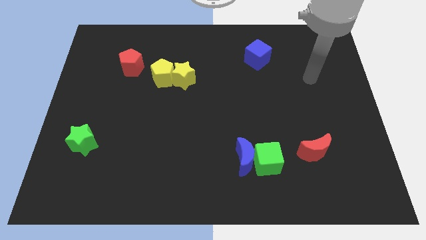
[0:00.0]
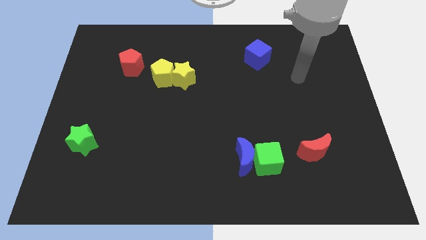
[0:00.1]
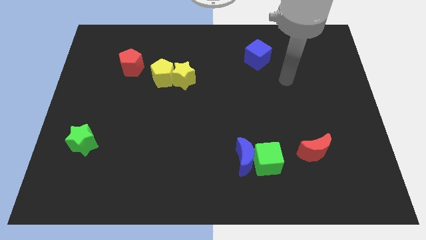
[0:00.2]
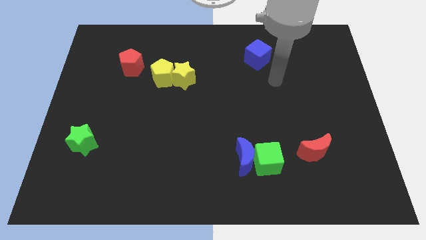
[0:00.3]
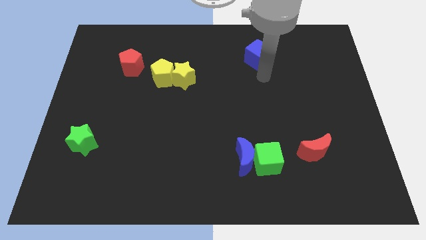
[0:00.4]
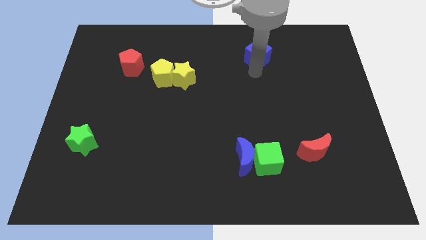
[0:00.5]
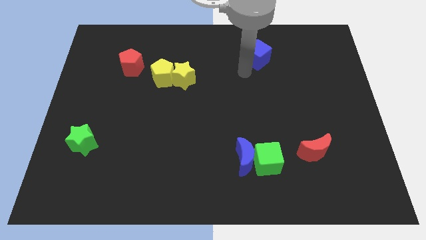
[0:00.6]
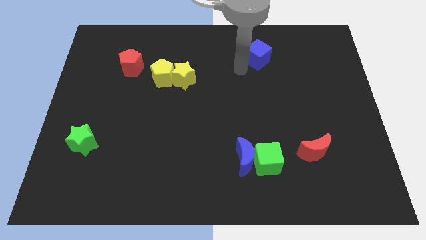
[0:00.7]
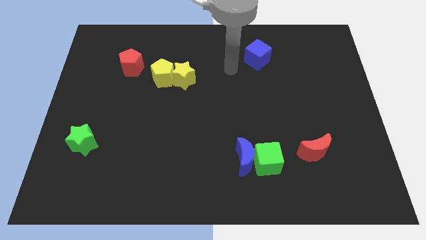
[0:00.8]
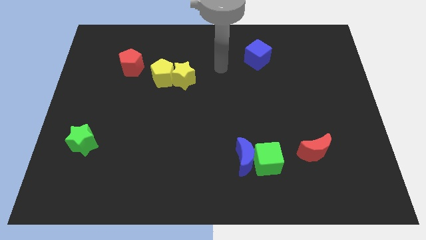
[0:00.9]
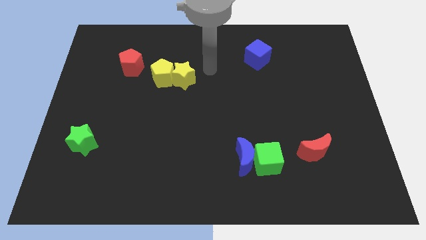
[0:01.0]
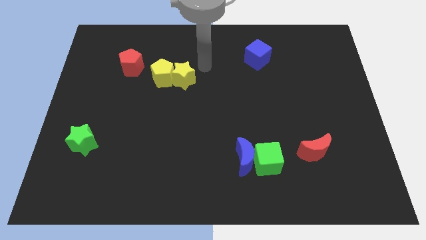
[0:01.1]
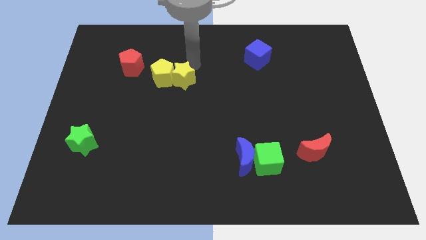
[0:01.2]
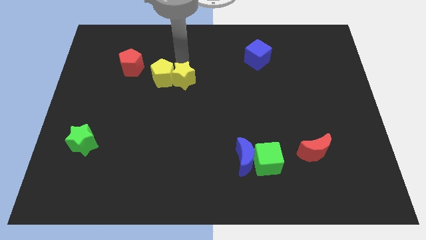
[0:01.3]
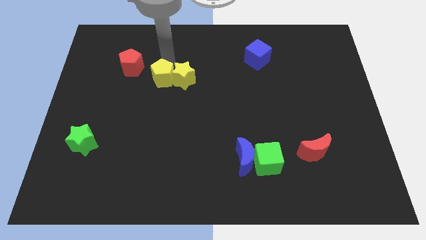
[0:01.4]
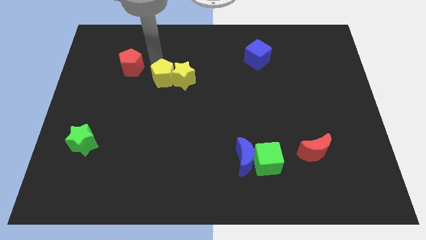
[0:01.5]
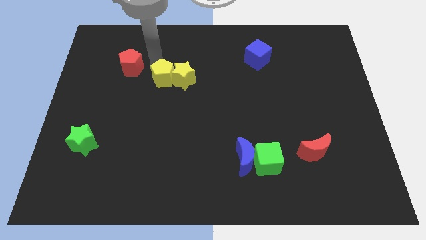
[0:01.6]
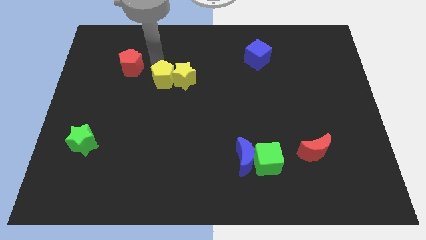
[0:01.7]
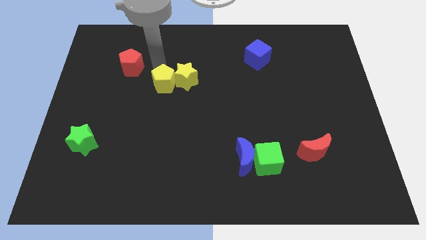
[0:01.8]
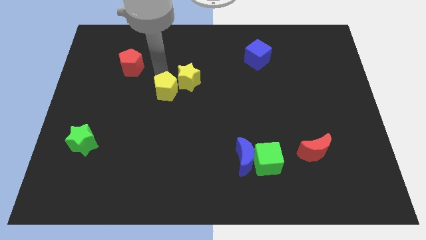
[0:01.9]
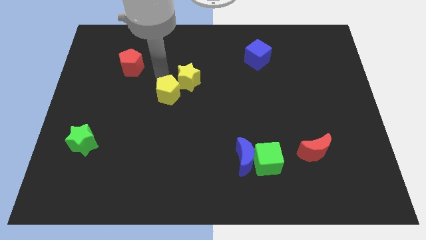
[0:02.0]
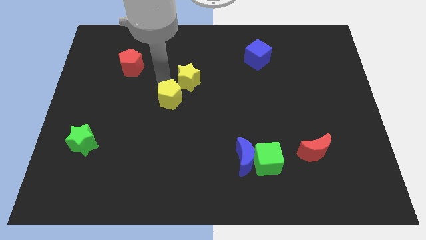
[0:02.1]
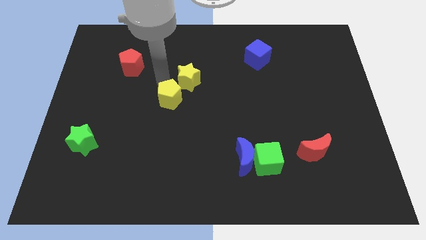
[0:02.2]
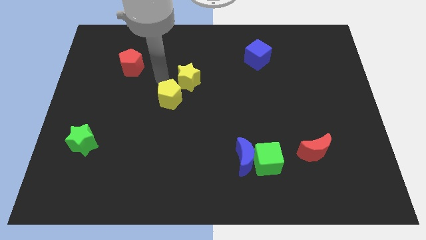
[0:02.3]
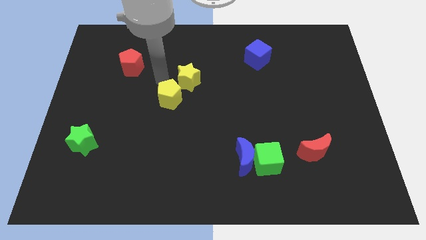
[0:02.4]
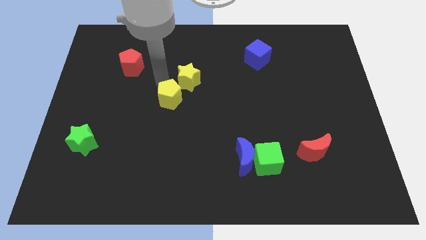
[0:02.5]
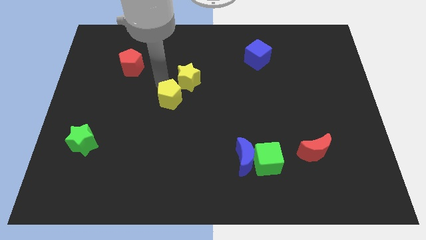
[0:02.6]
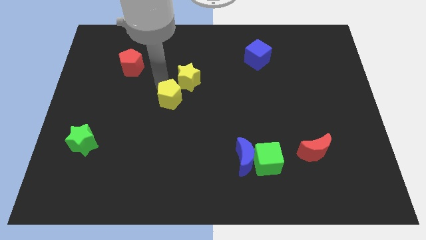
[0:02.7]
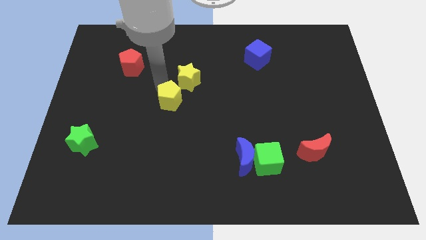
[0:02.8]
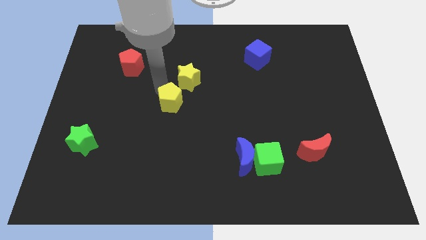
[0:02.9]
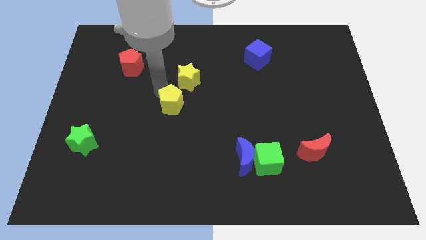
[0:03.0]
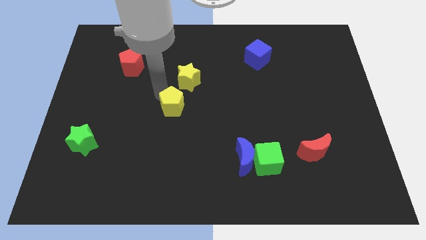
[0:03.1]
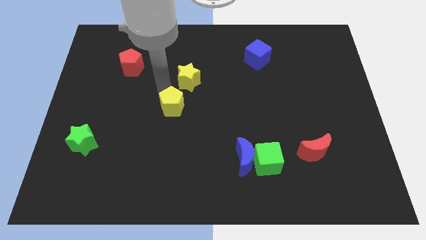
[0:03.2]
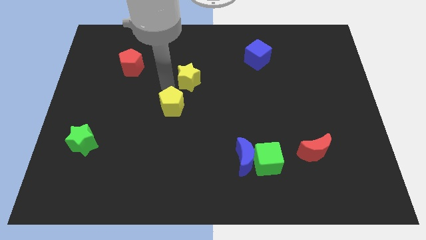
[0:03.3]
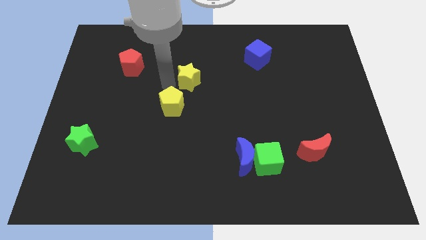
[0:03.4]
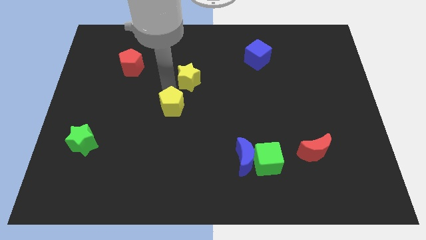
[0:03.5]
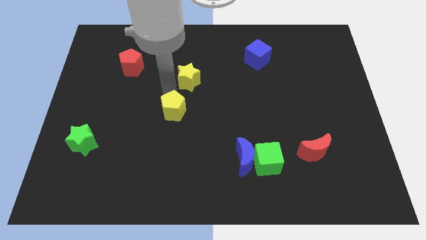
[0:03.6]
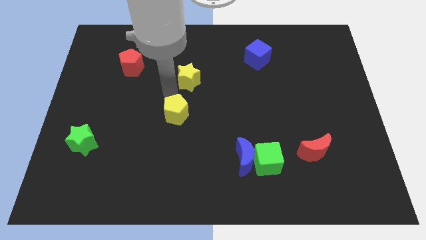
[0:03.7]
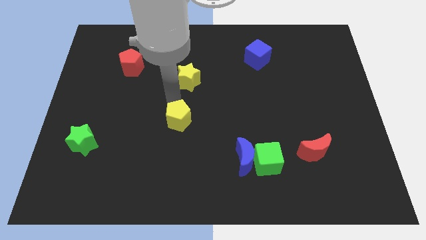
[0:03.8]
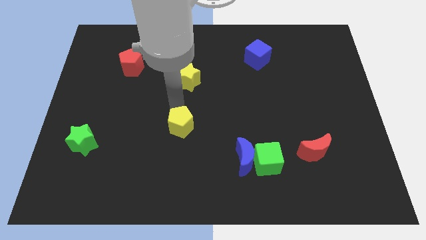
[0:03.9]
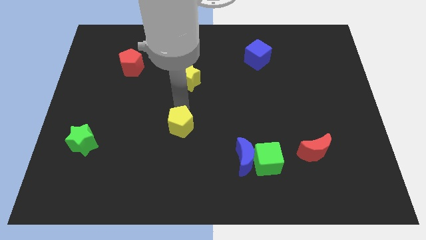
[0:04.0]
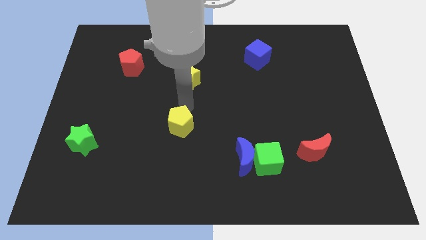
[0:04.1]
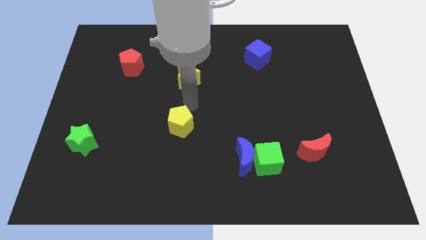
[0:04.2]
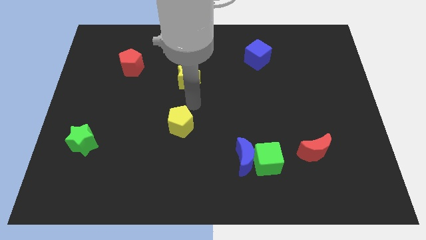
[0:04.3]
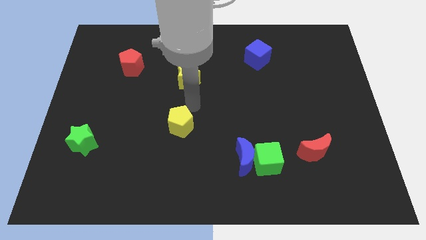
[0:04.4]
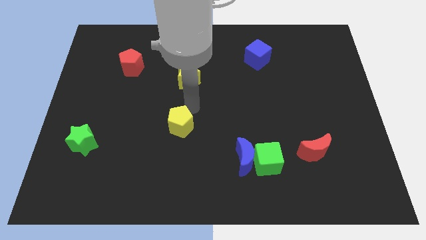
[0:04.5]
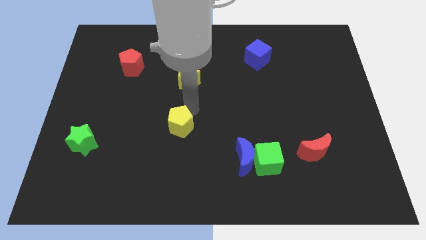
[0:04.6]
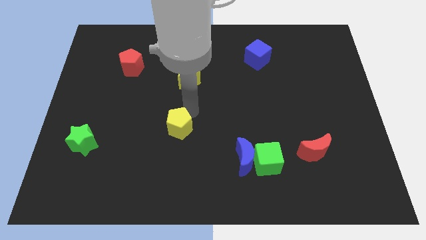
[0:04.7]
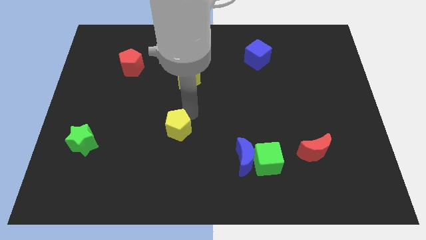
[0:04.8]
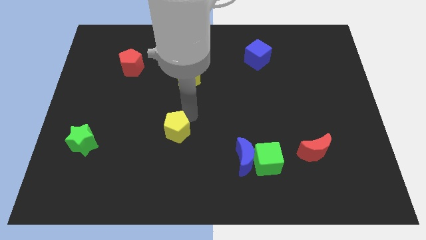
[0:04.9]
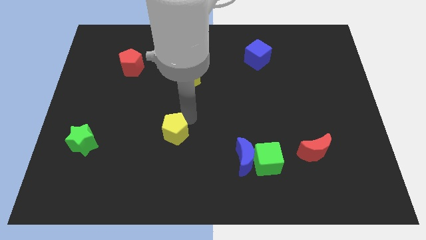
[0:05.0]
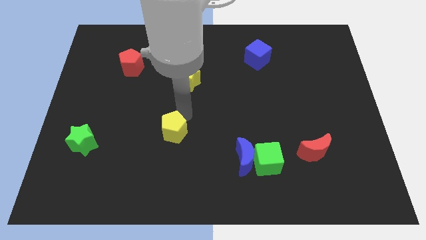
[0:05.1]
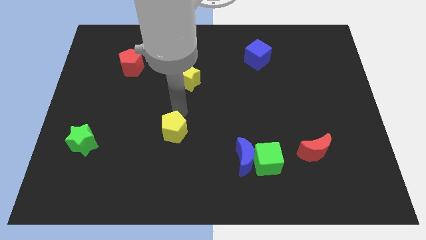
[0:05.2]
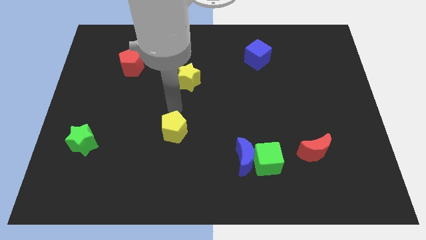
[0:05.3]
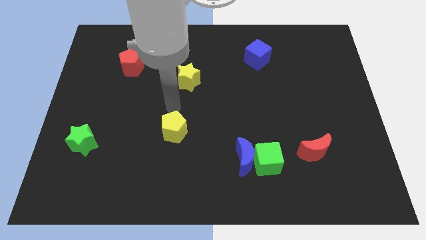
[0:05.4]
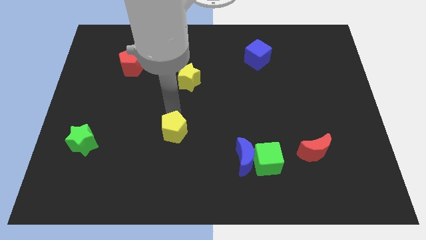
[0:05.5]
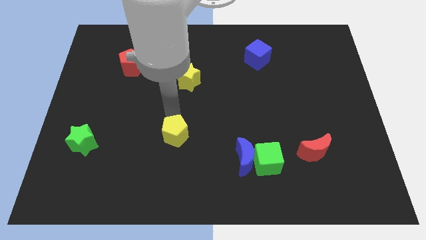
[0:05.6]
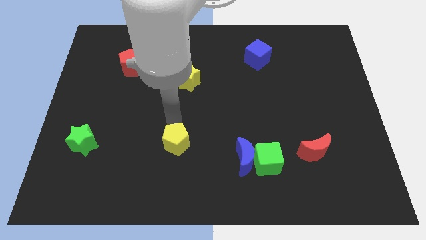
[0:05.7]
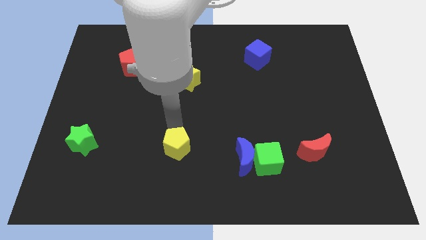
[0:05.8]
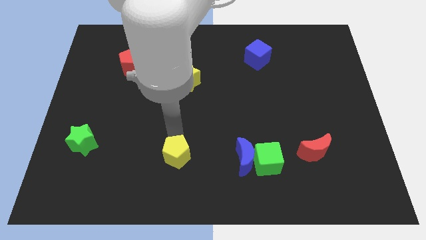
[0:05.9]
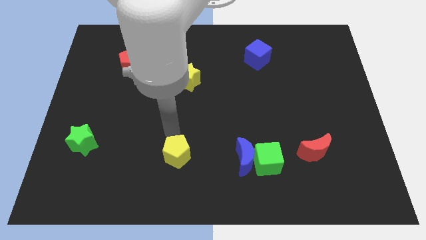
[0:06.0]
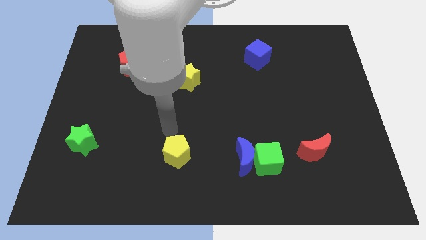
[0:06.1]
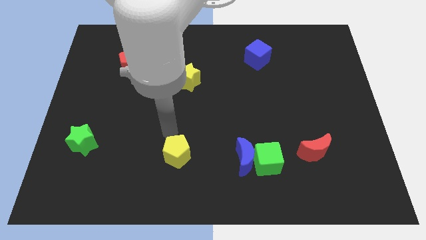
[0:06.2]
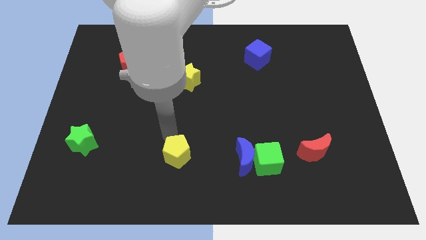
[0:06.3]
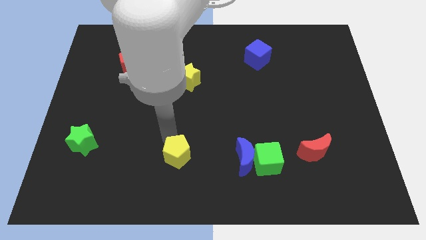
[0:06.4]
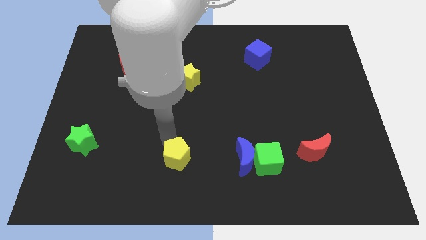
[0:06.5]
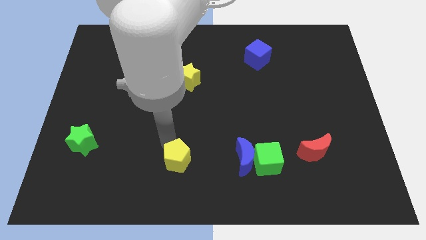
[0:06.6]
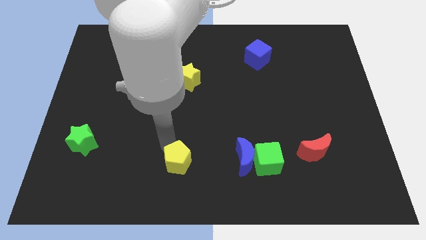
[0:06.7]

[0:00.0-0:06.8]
slide the yellow pentagon to the bottom

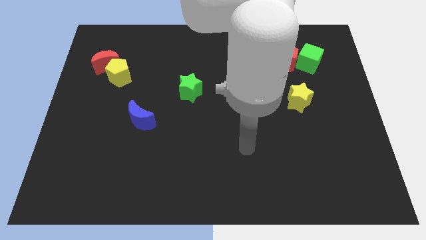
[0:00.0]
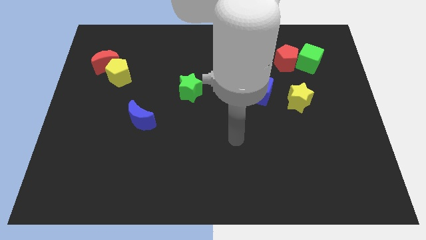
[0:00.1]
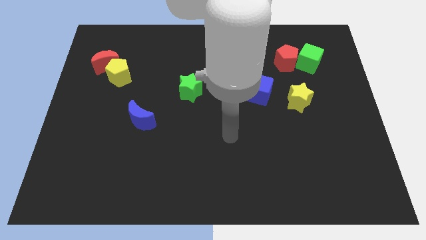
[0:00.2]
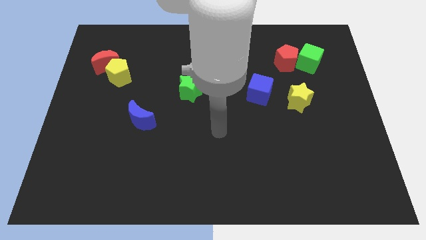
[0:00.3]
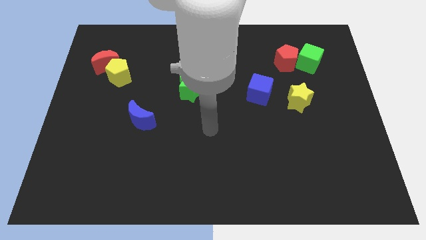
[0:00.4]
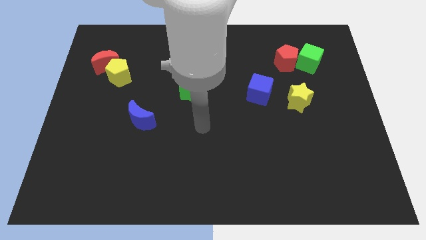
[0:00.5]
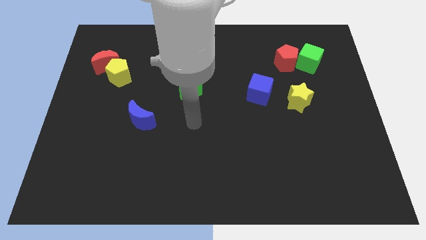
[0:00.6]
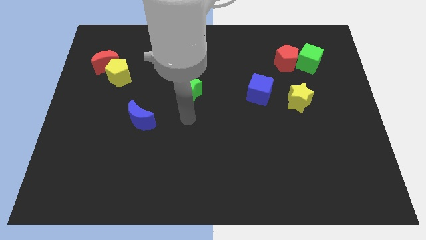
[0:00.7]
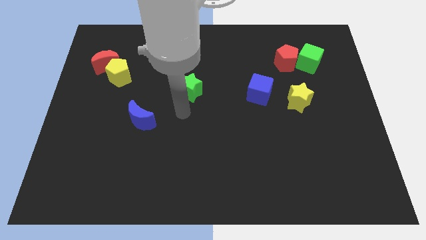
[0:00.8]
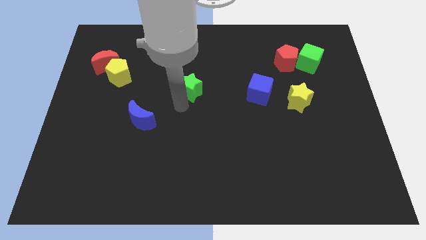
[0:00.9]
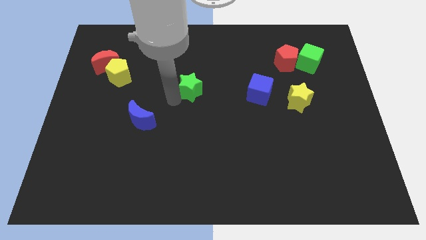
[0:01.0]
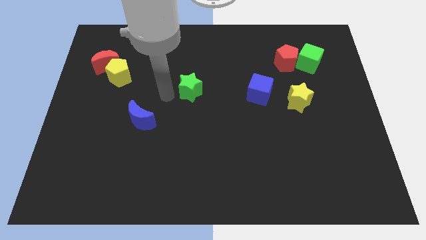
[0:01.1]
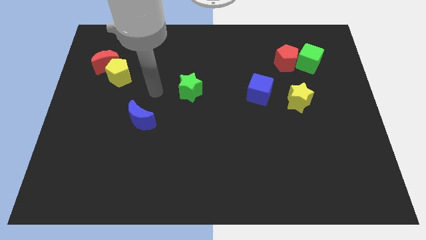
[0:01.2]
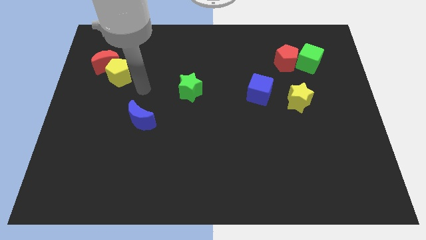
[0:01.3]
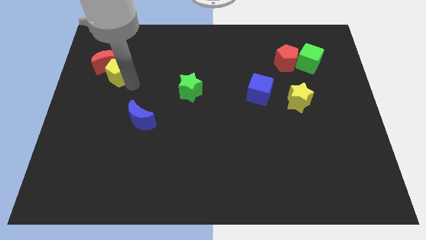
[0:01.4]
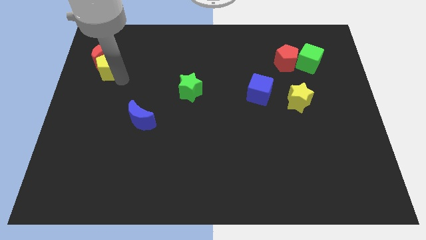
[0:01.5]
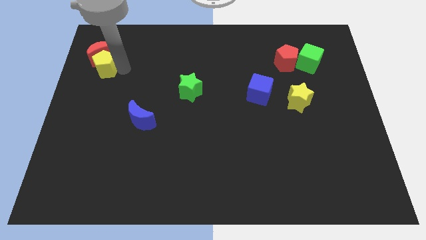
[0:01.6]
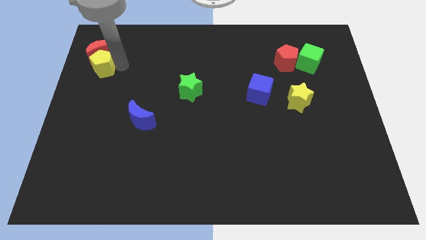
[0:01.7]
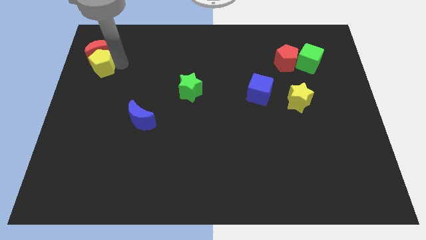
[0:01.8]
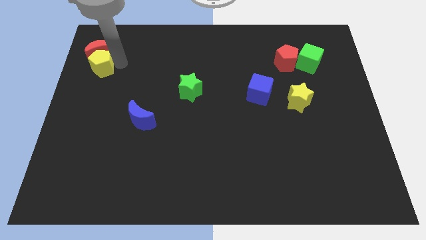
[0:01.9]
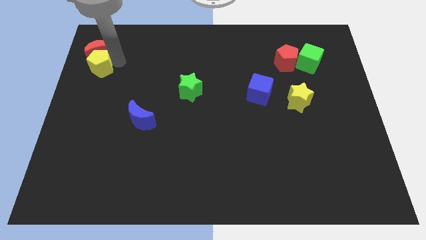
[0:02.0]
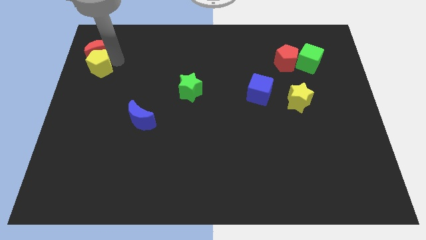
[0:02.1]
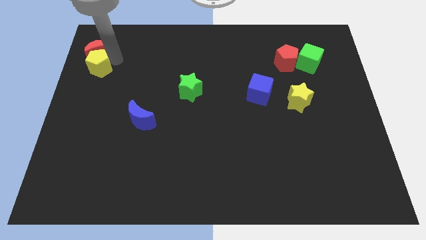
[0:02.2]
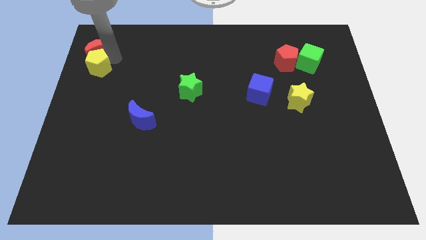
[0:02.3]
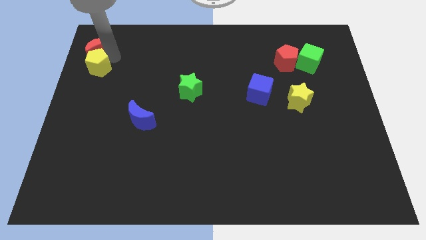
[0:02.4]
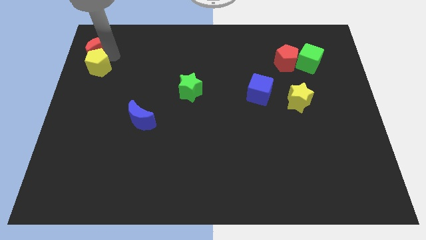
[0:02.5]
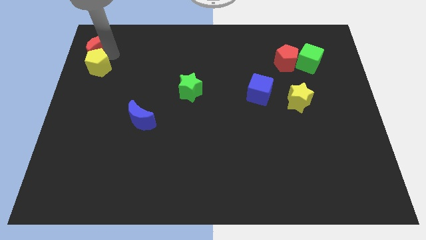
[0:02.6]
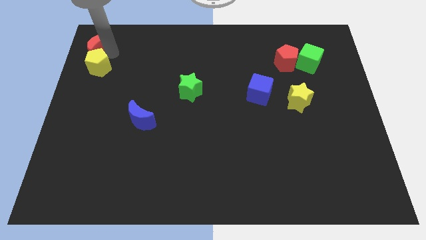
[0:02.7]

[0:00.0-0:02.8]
put the red moon to the top left
